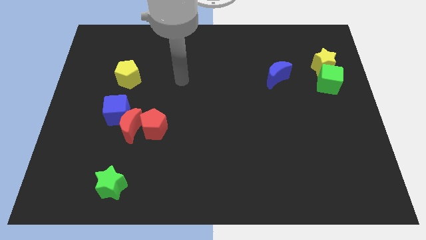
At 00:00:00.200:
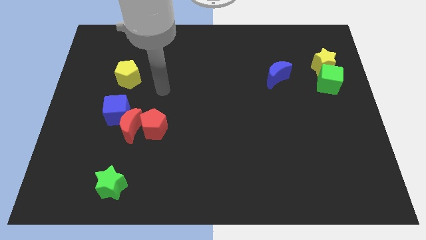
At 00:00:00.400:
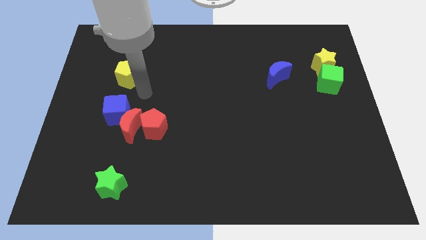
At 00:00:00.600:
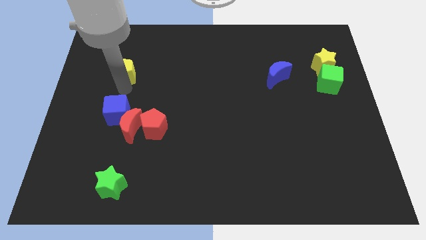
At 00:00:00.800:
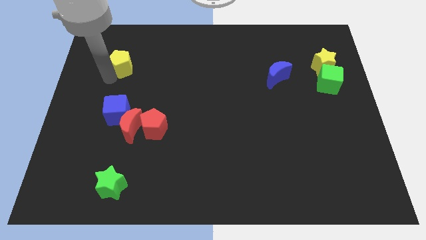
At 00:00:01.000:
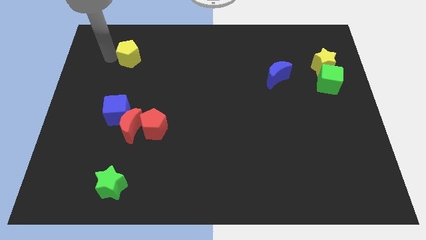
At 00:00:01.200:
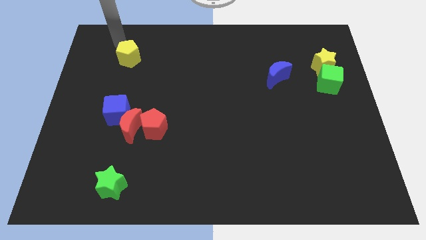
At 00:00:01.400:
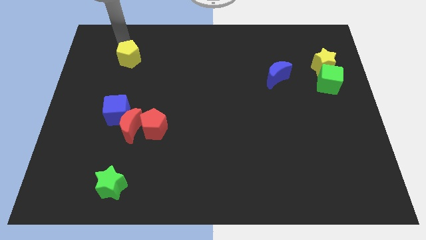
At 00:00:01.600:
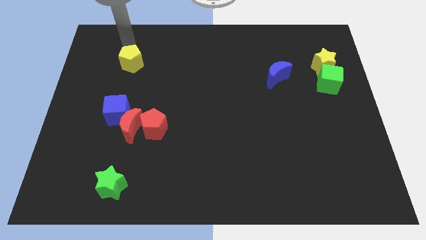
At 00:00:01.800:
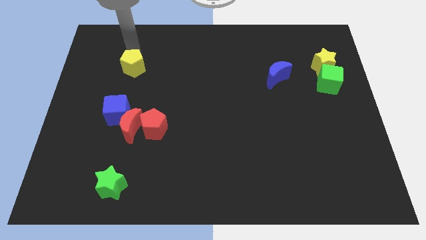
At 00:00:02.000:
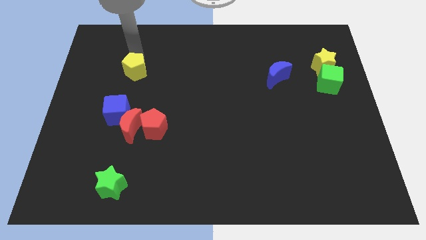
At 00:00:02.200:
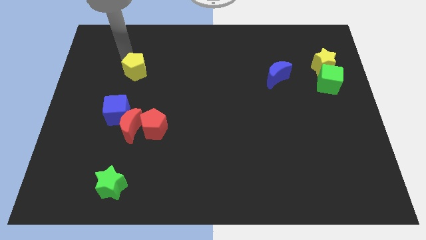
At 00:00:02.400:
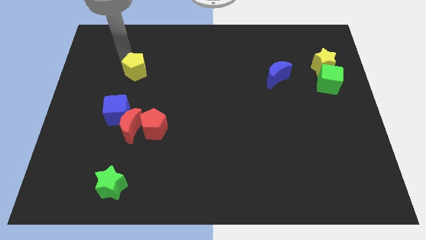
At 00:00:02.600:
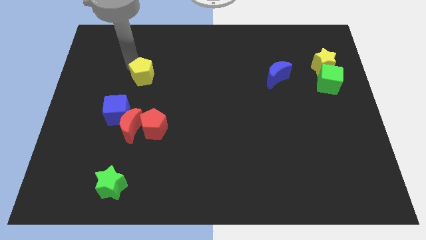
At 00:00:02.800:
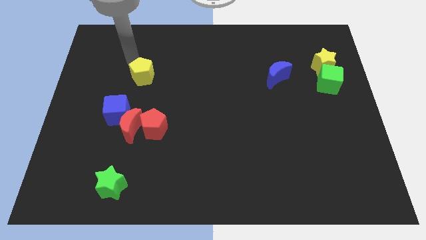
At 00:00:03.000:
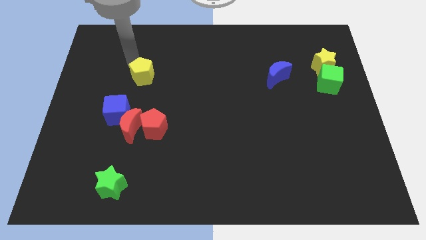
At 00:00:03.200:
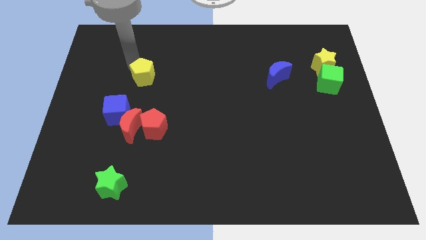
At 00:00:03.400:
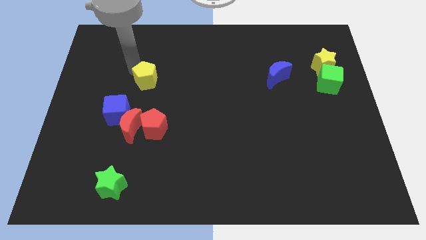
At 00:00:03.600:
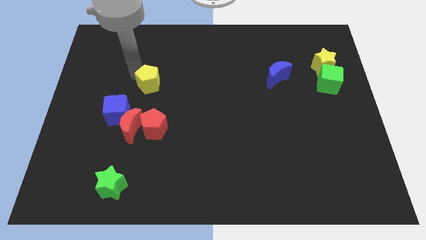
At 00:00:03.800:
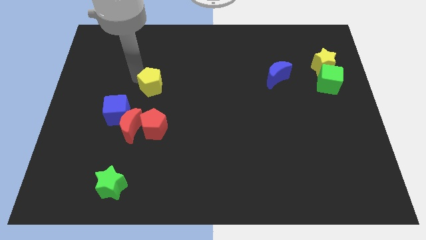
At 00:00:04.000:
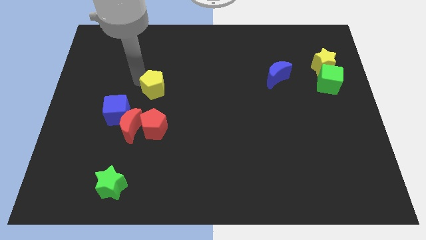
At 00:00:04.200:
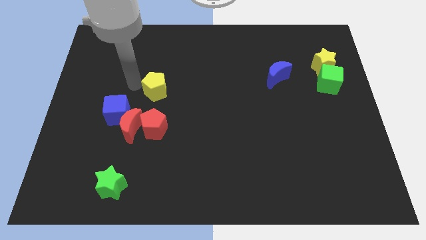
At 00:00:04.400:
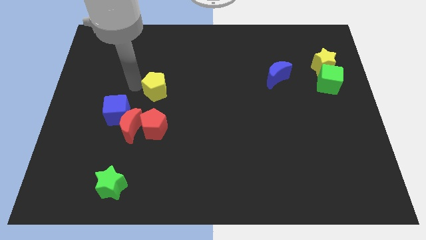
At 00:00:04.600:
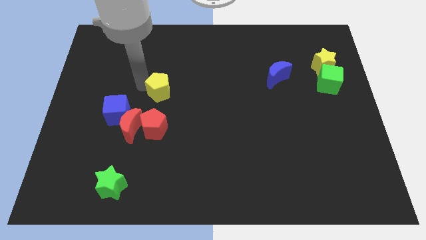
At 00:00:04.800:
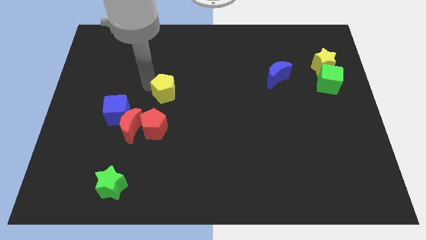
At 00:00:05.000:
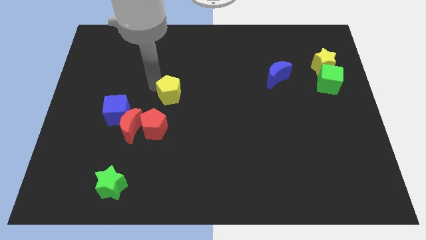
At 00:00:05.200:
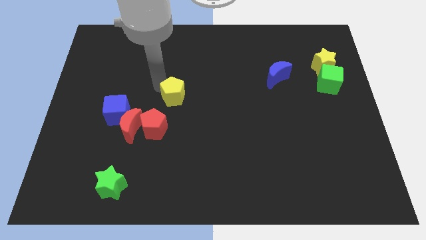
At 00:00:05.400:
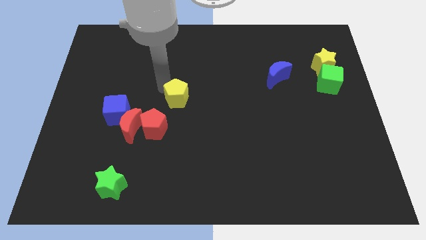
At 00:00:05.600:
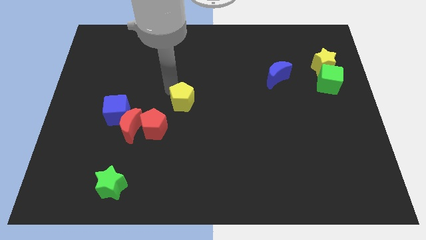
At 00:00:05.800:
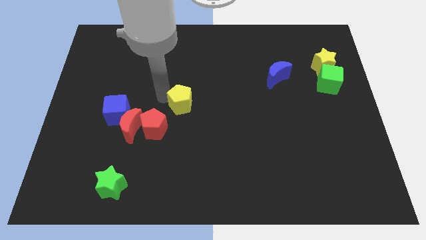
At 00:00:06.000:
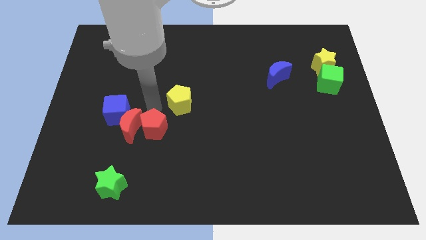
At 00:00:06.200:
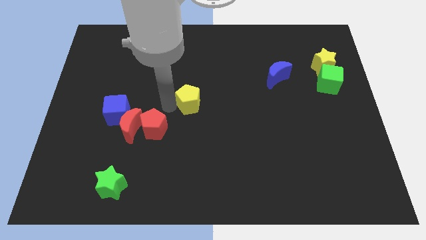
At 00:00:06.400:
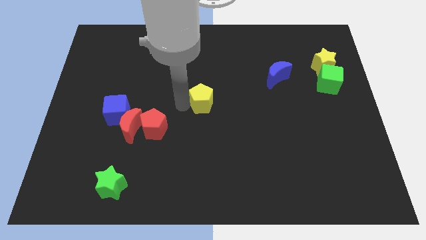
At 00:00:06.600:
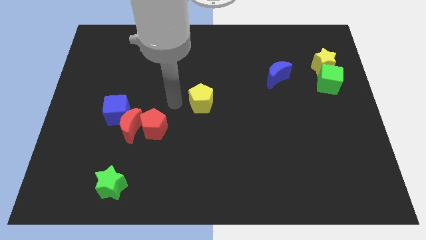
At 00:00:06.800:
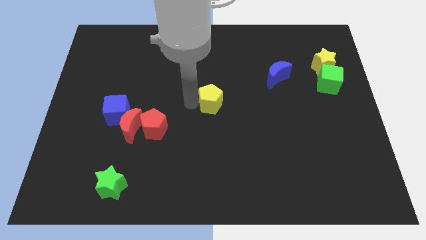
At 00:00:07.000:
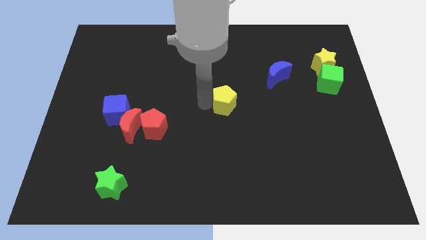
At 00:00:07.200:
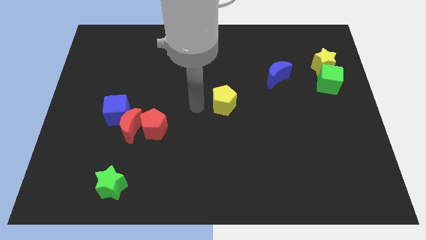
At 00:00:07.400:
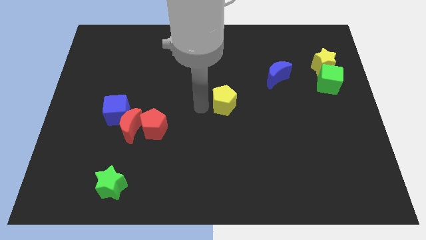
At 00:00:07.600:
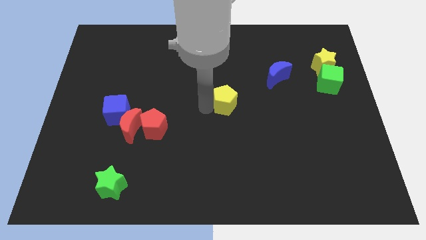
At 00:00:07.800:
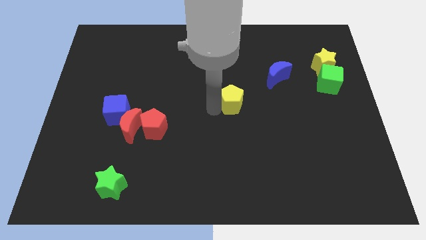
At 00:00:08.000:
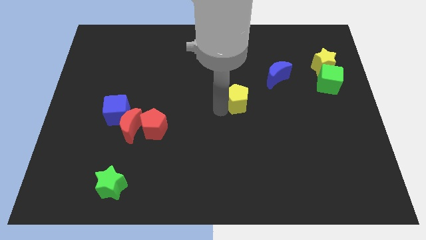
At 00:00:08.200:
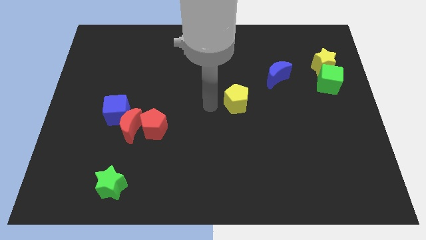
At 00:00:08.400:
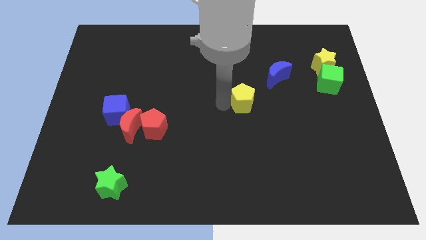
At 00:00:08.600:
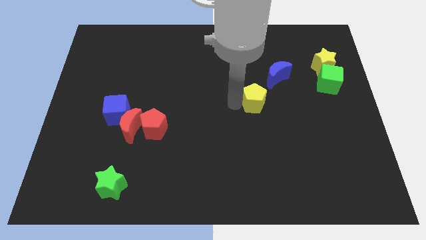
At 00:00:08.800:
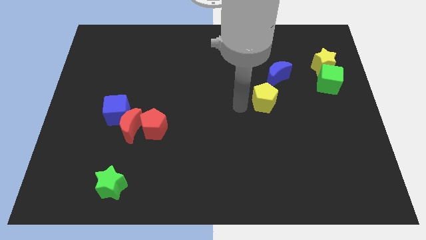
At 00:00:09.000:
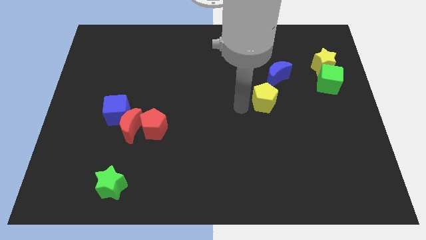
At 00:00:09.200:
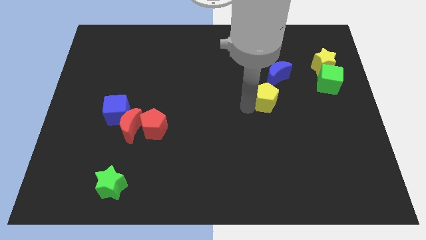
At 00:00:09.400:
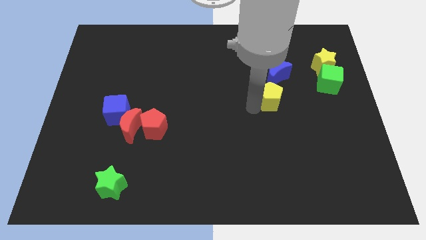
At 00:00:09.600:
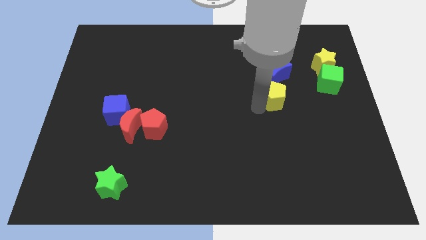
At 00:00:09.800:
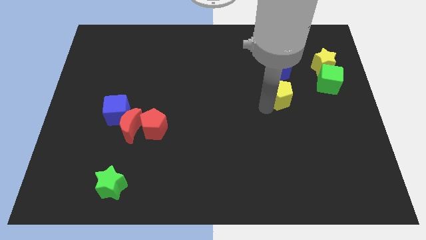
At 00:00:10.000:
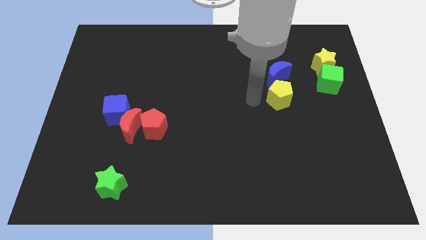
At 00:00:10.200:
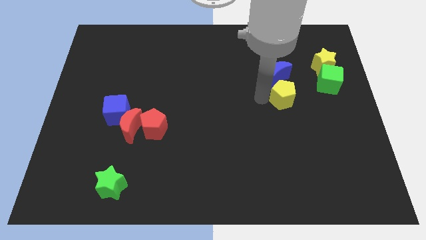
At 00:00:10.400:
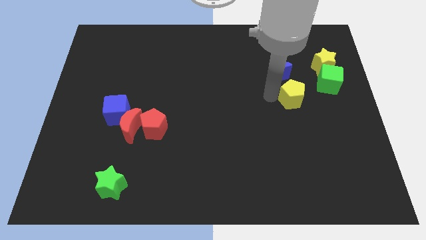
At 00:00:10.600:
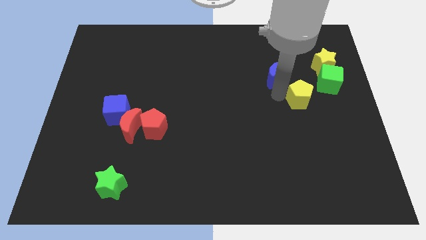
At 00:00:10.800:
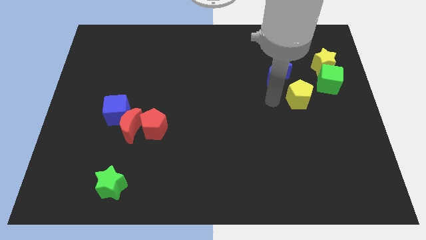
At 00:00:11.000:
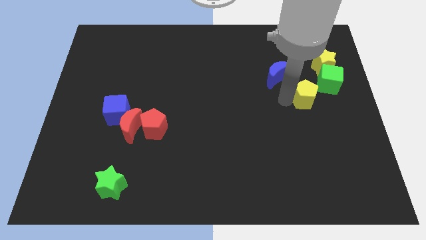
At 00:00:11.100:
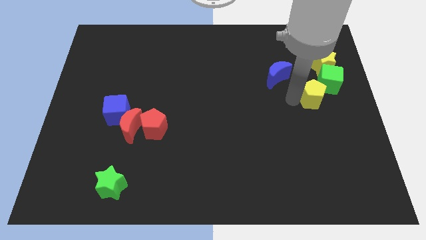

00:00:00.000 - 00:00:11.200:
move the yellow pentagon to the bottom of the yellow star
